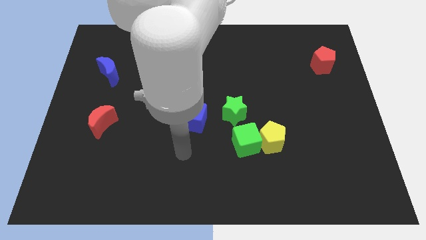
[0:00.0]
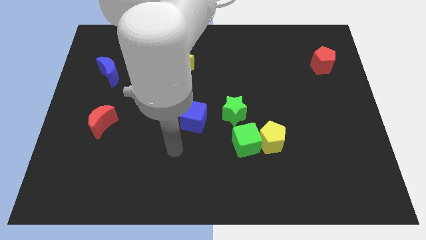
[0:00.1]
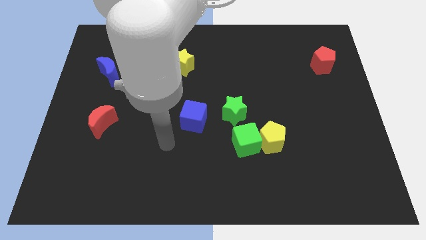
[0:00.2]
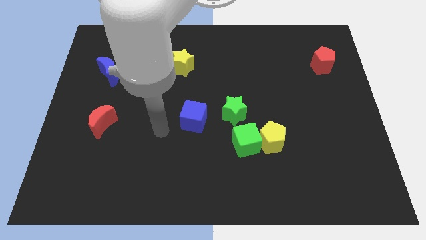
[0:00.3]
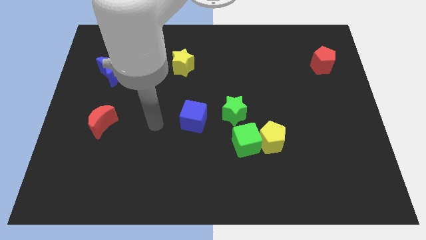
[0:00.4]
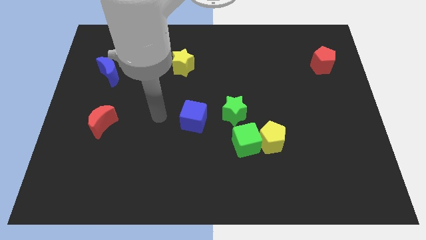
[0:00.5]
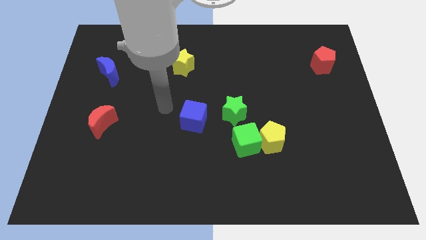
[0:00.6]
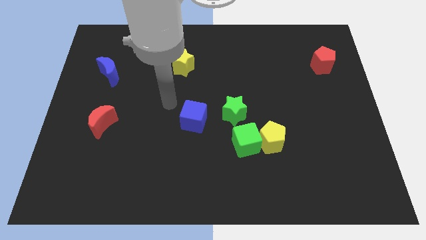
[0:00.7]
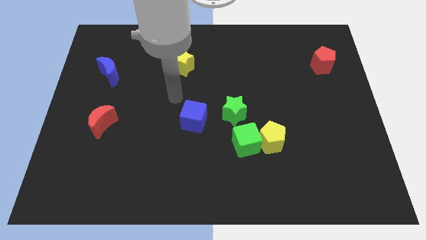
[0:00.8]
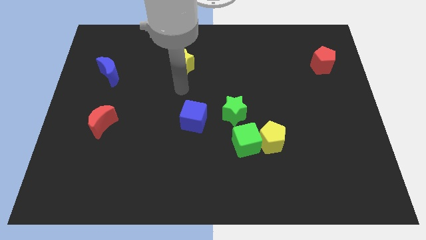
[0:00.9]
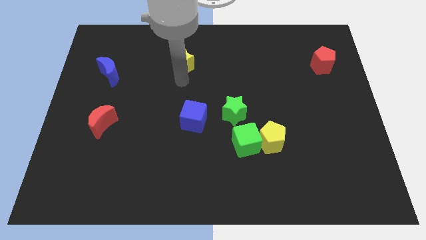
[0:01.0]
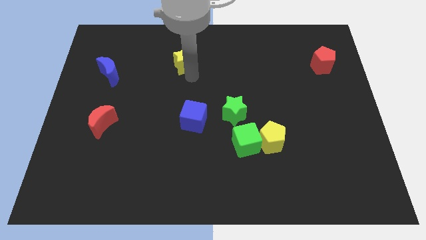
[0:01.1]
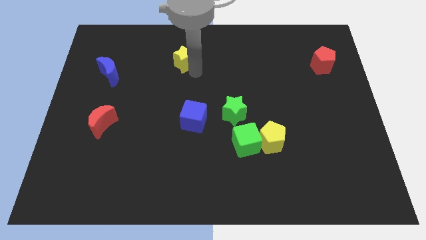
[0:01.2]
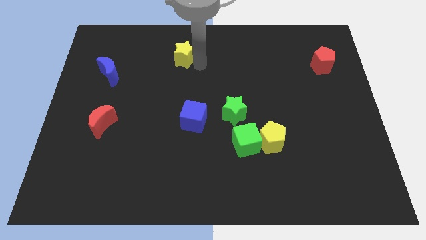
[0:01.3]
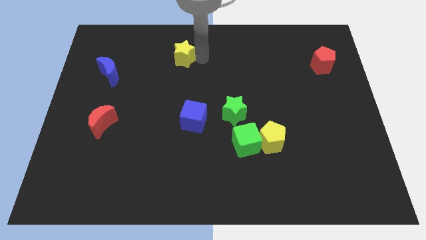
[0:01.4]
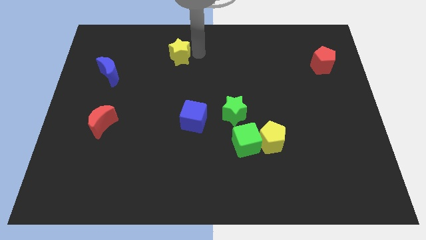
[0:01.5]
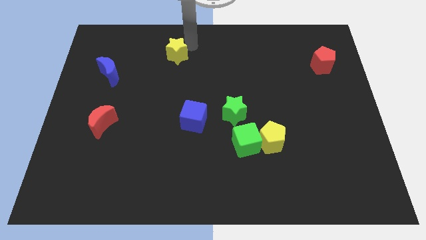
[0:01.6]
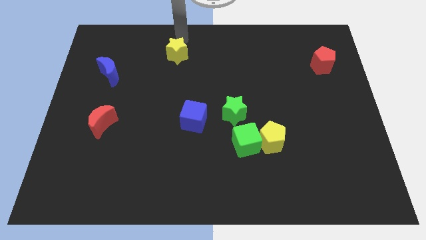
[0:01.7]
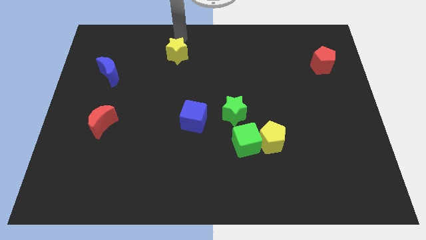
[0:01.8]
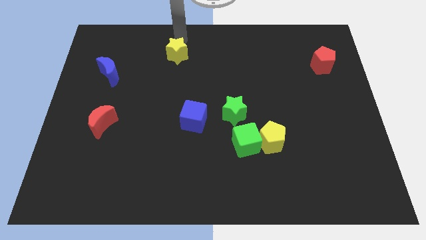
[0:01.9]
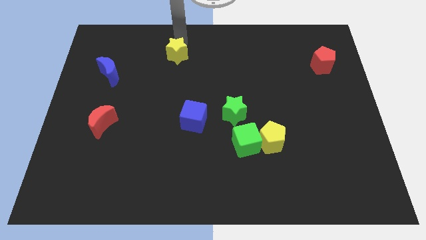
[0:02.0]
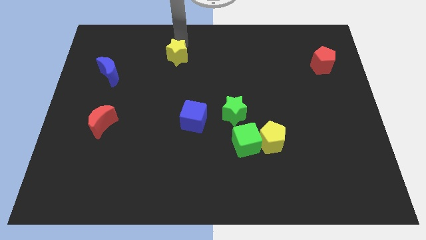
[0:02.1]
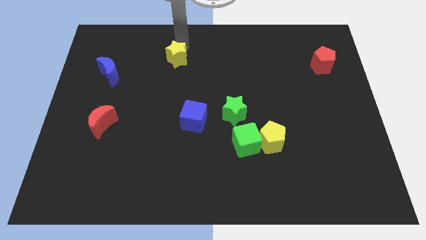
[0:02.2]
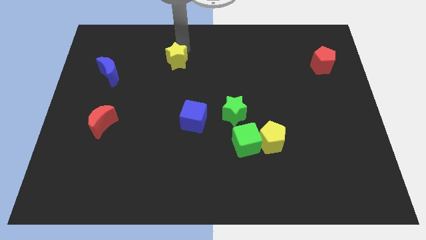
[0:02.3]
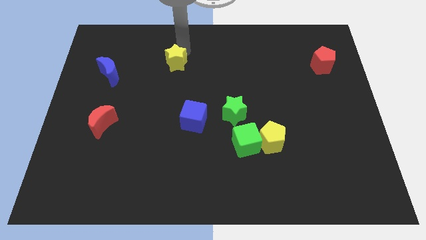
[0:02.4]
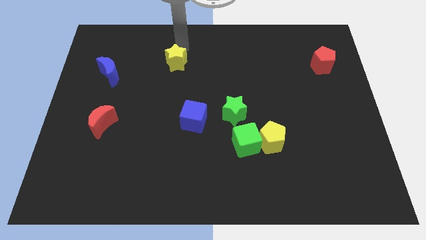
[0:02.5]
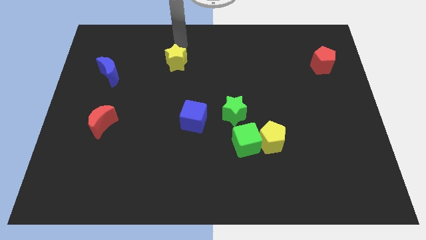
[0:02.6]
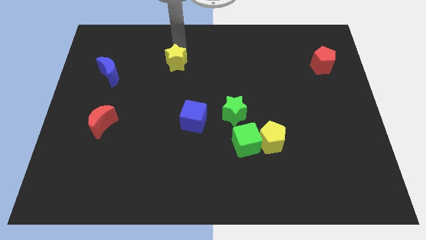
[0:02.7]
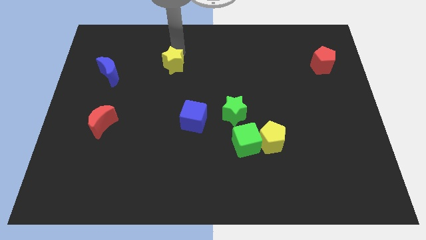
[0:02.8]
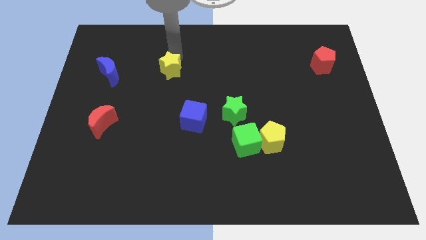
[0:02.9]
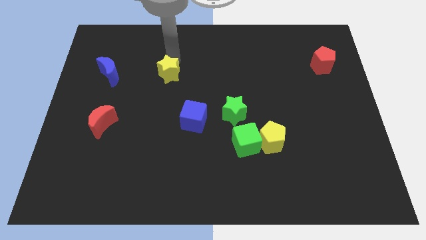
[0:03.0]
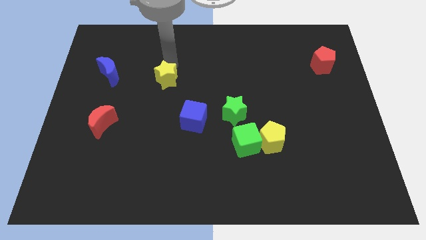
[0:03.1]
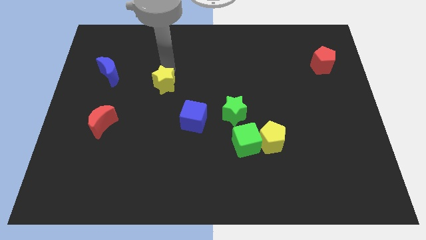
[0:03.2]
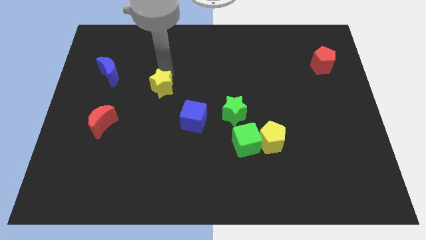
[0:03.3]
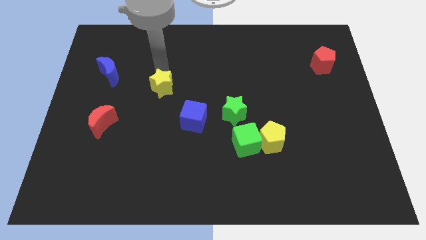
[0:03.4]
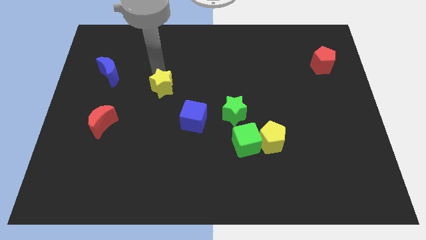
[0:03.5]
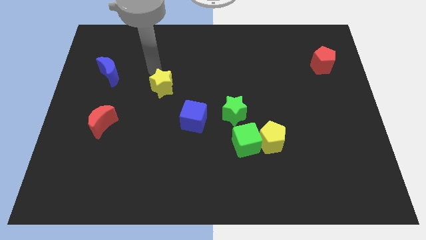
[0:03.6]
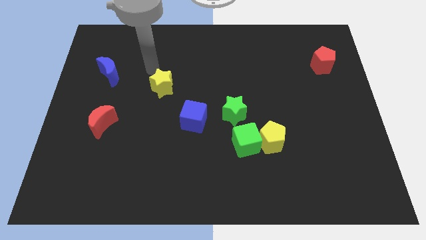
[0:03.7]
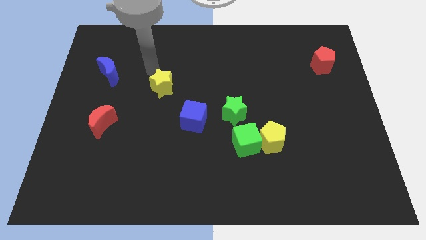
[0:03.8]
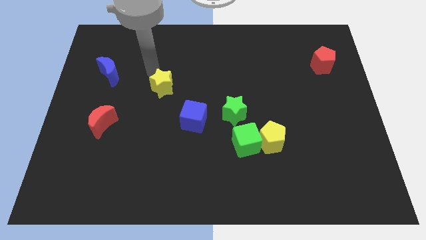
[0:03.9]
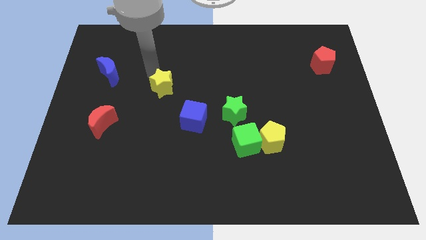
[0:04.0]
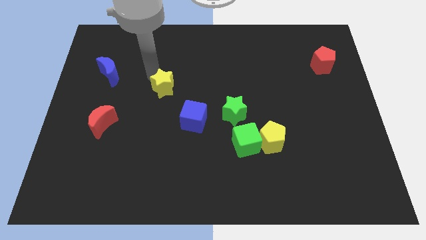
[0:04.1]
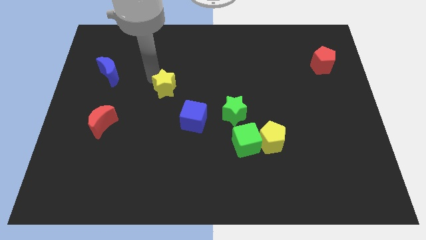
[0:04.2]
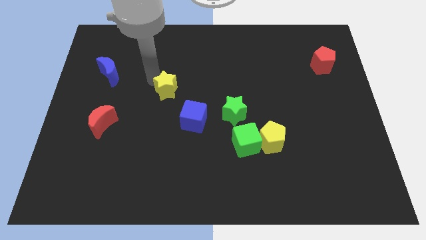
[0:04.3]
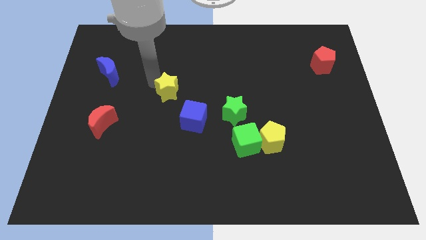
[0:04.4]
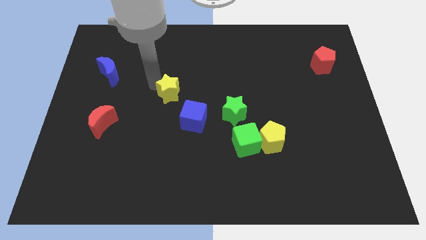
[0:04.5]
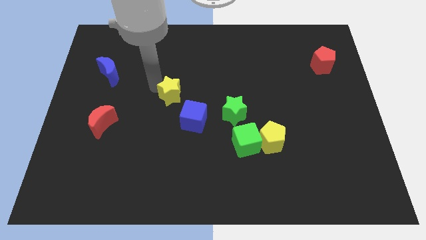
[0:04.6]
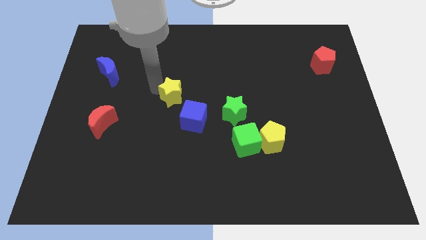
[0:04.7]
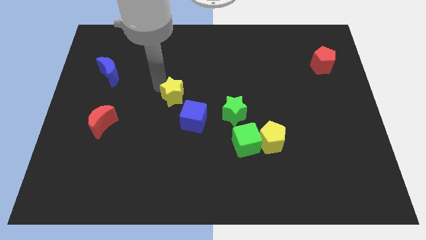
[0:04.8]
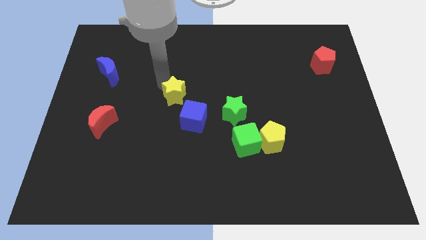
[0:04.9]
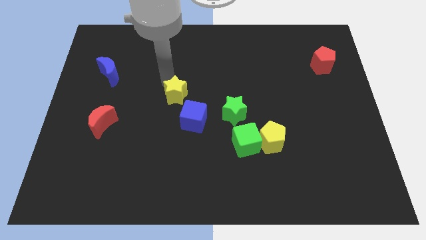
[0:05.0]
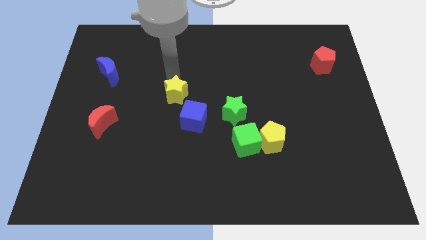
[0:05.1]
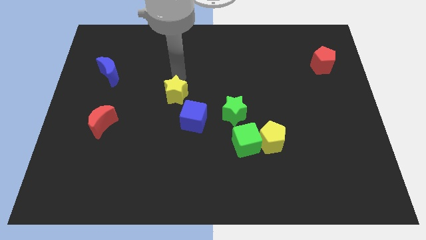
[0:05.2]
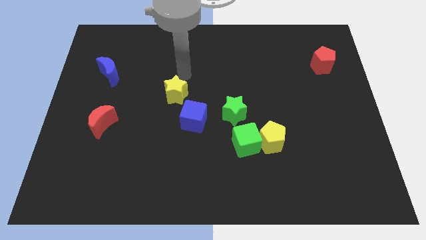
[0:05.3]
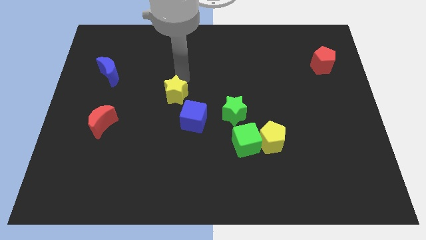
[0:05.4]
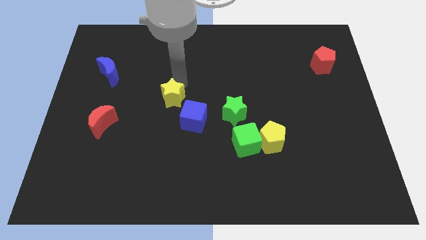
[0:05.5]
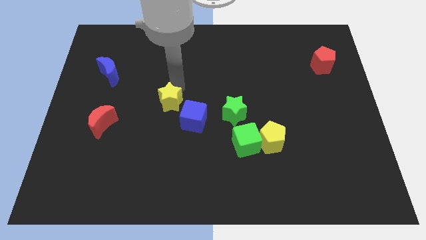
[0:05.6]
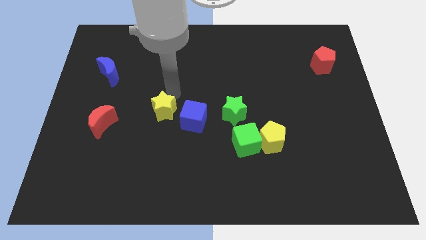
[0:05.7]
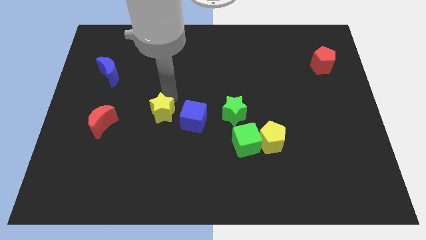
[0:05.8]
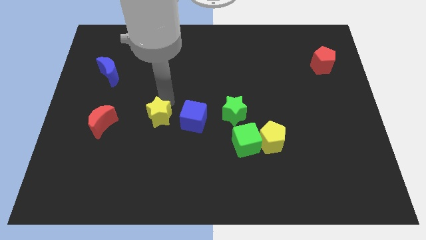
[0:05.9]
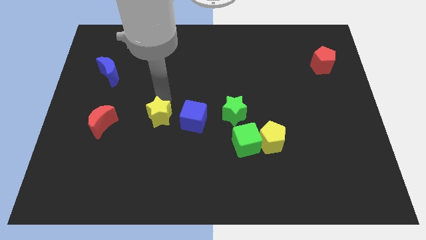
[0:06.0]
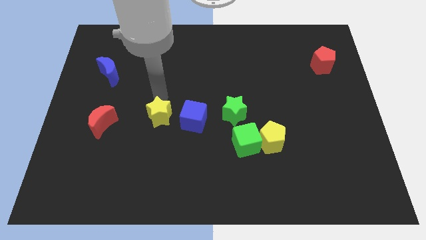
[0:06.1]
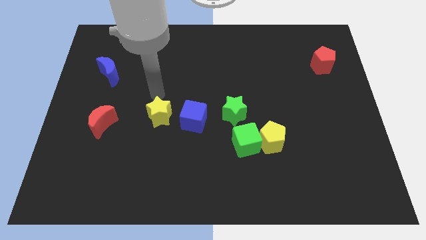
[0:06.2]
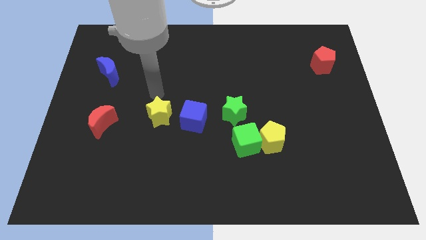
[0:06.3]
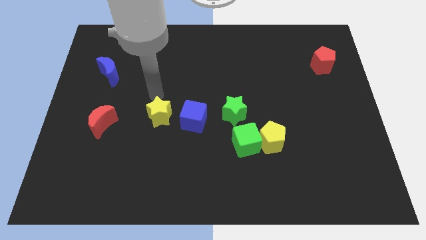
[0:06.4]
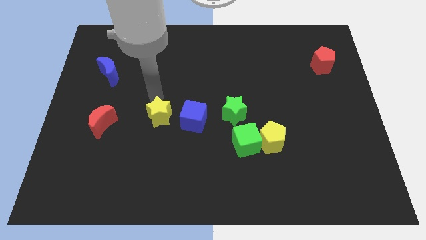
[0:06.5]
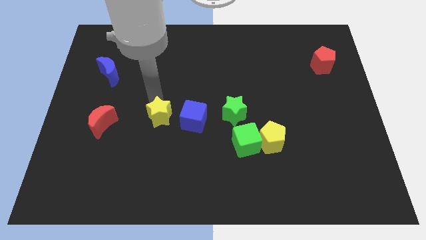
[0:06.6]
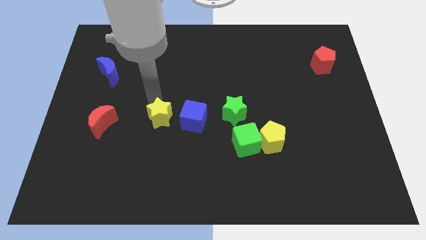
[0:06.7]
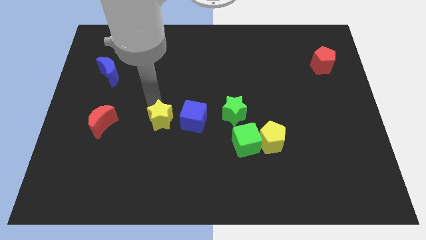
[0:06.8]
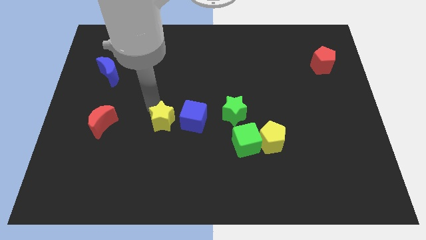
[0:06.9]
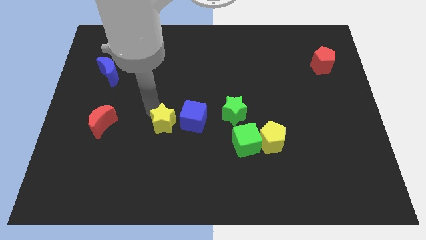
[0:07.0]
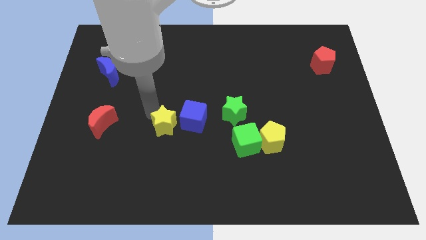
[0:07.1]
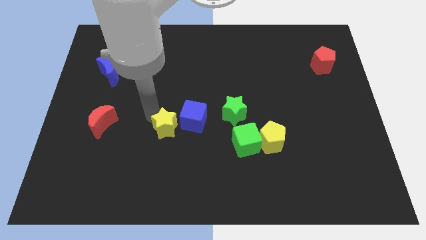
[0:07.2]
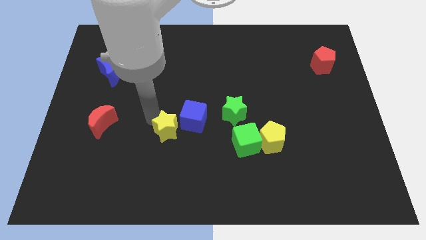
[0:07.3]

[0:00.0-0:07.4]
push the yellow star down

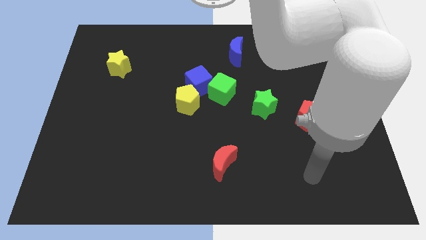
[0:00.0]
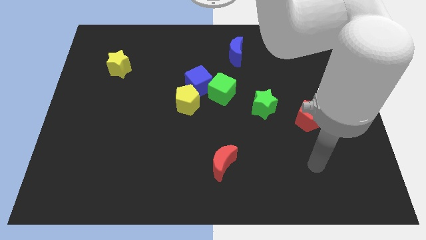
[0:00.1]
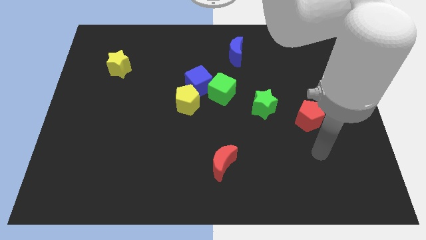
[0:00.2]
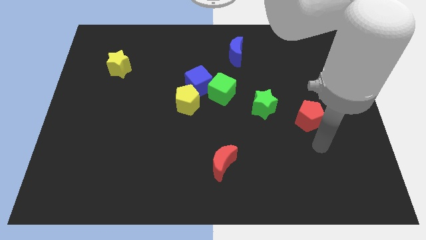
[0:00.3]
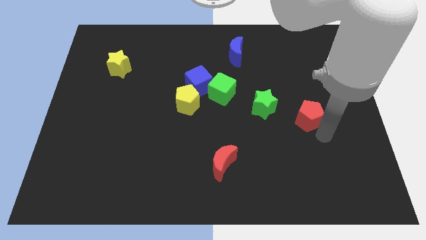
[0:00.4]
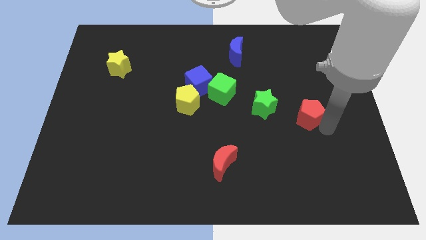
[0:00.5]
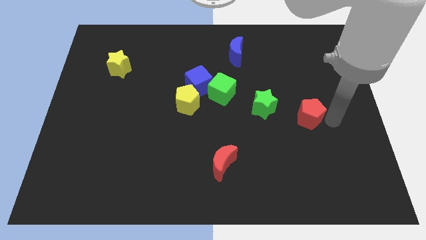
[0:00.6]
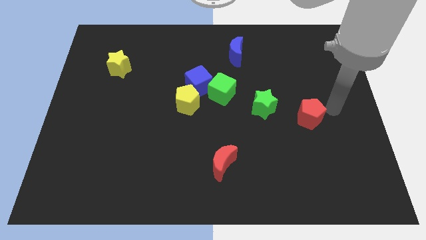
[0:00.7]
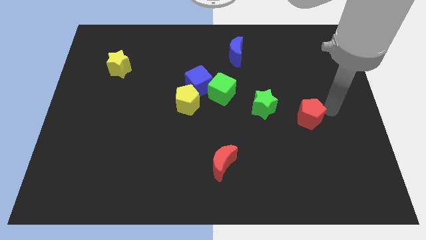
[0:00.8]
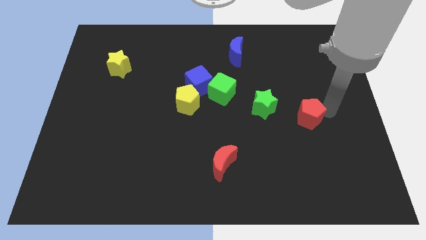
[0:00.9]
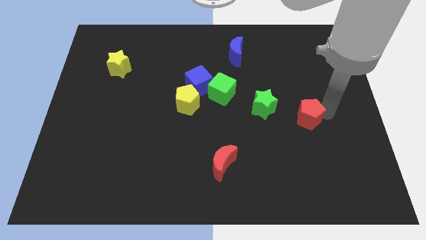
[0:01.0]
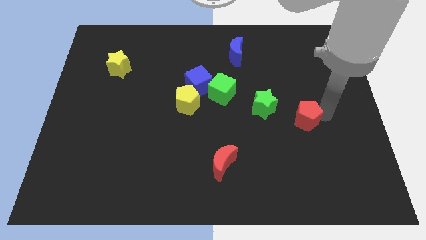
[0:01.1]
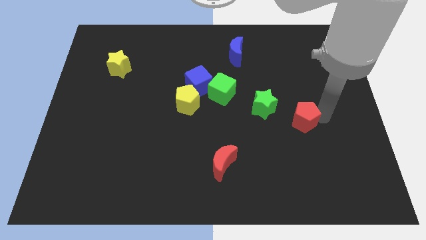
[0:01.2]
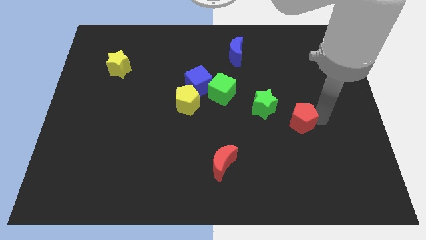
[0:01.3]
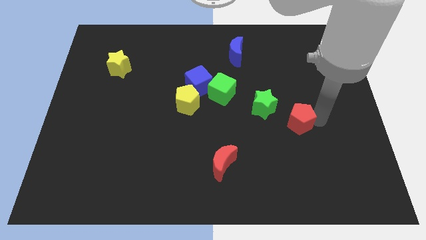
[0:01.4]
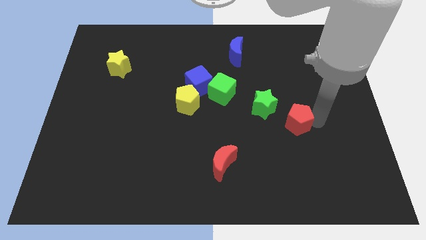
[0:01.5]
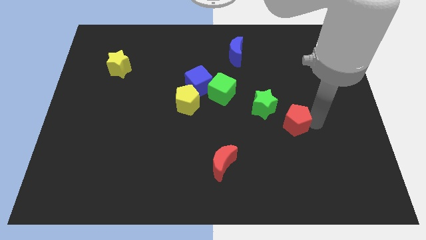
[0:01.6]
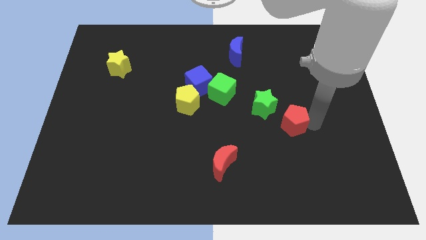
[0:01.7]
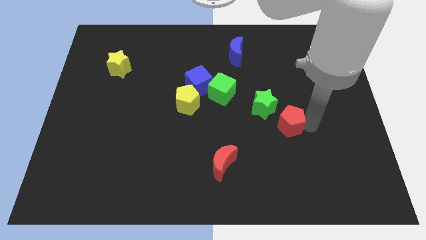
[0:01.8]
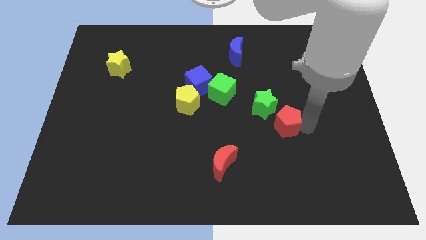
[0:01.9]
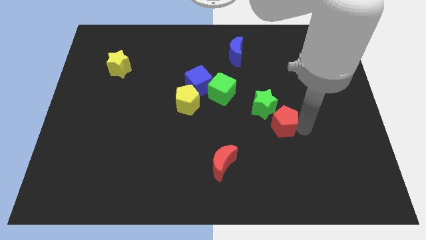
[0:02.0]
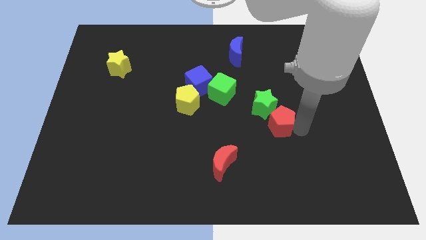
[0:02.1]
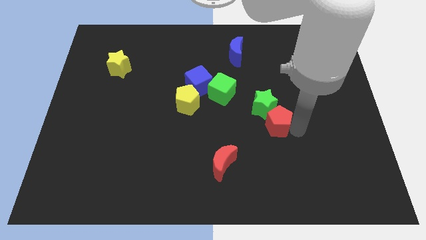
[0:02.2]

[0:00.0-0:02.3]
move the red pentagon left a little
